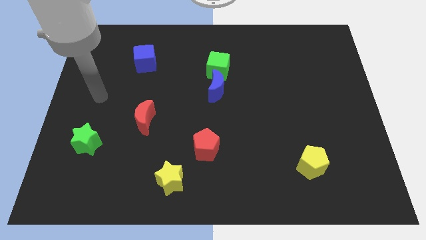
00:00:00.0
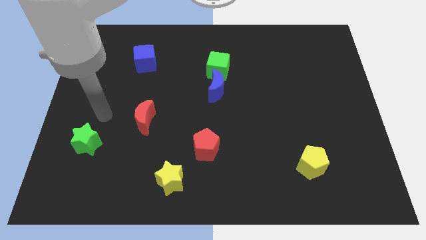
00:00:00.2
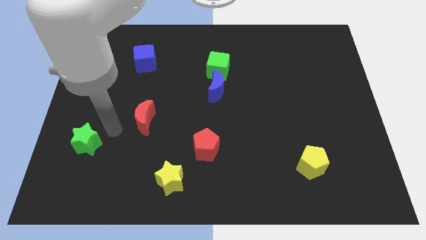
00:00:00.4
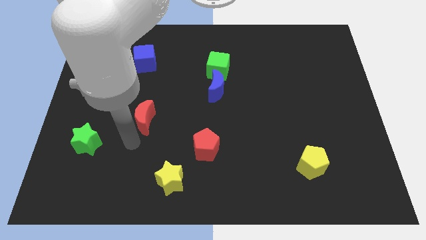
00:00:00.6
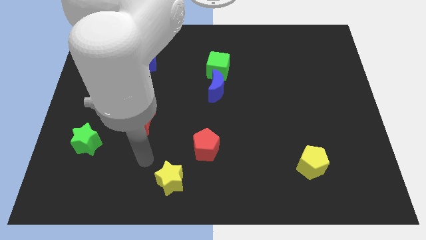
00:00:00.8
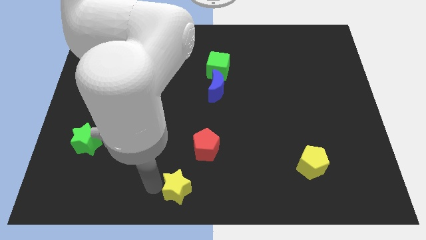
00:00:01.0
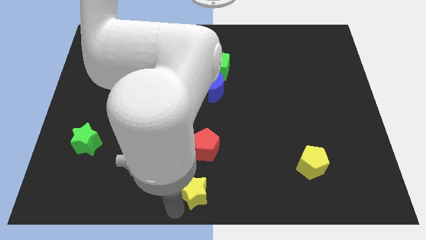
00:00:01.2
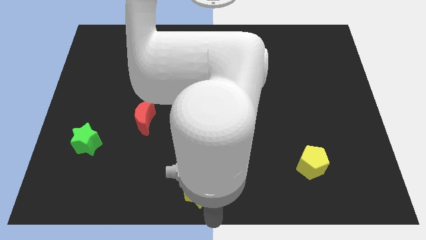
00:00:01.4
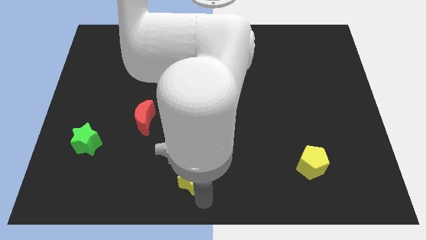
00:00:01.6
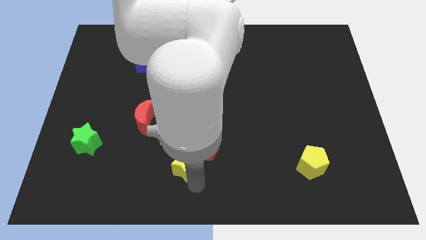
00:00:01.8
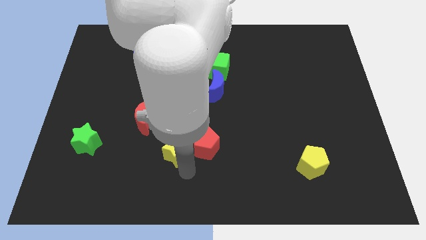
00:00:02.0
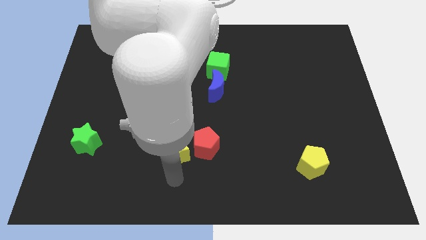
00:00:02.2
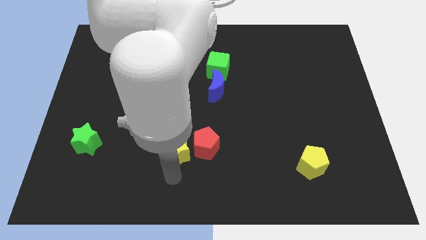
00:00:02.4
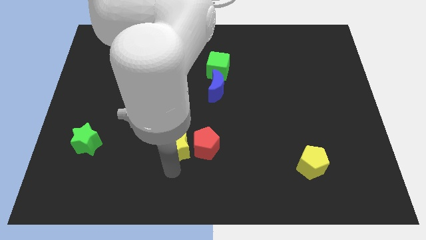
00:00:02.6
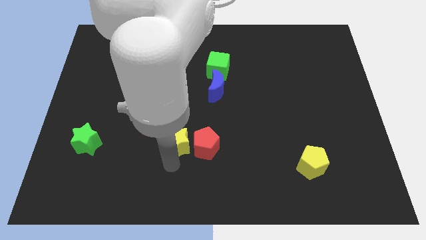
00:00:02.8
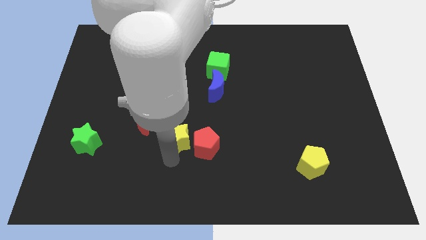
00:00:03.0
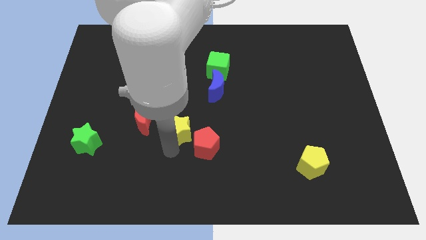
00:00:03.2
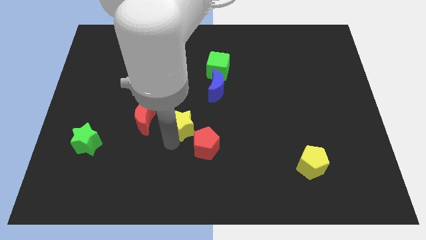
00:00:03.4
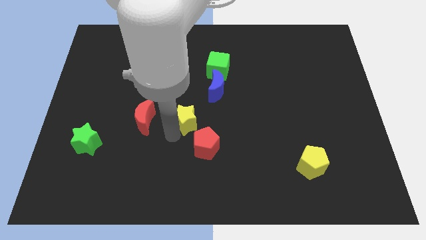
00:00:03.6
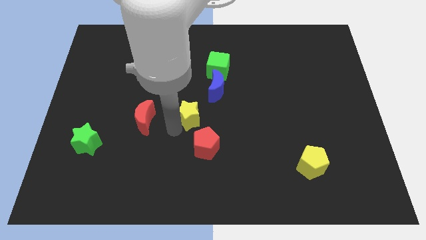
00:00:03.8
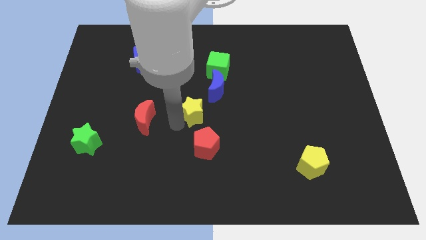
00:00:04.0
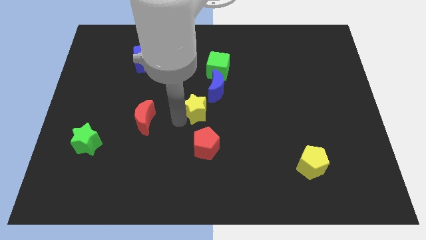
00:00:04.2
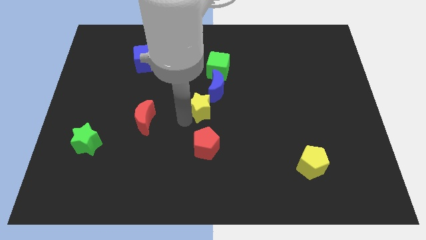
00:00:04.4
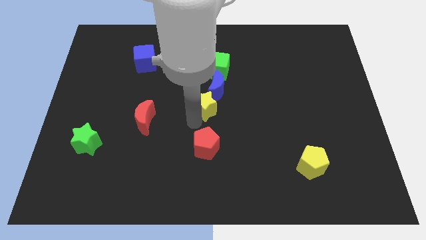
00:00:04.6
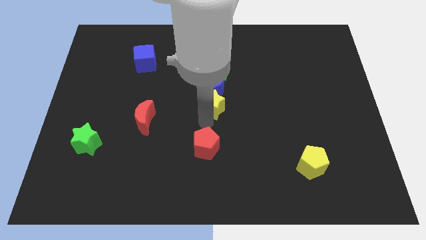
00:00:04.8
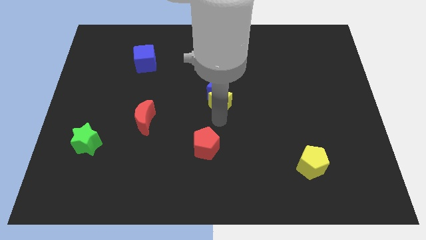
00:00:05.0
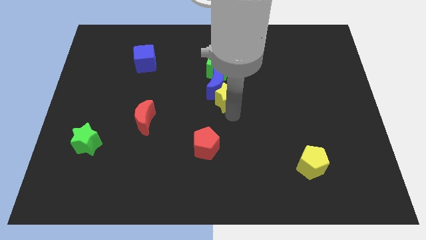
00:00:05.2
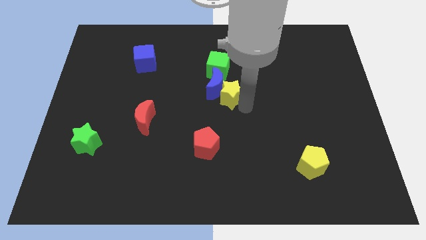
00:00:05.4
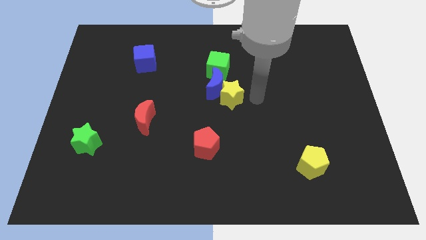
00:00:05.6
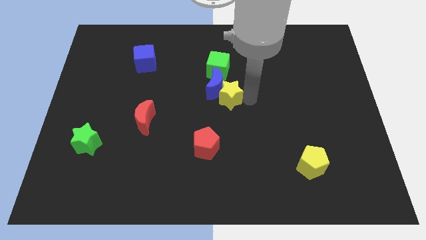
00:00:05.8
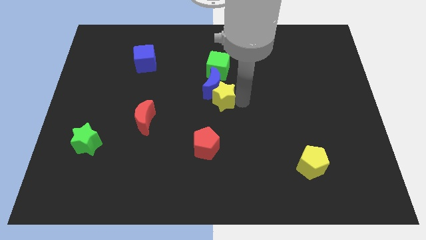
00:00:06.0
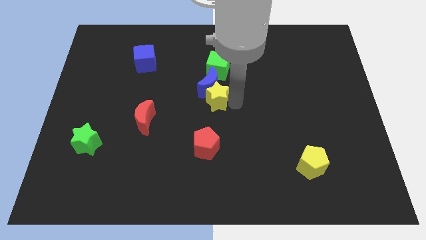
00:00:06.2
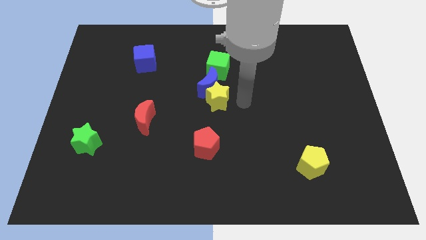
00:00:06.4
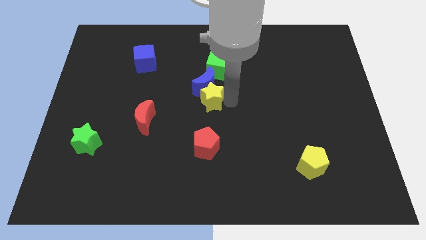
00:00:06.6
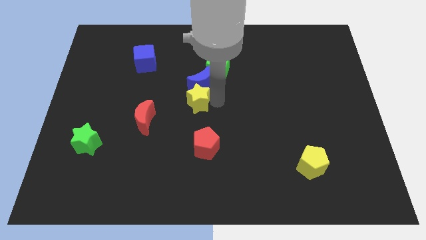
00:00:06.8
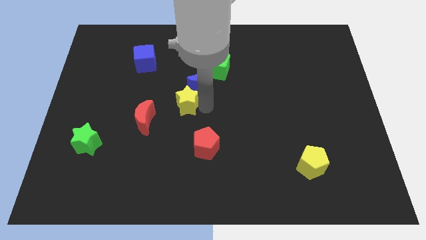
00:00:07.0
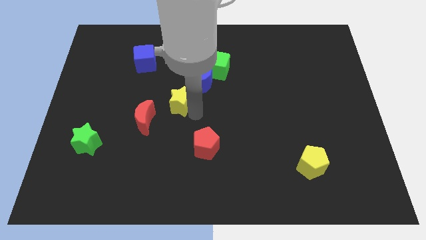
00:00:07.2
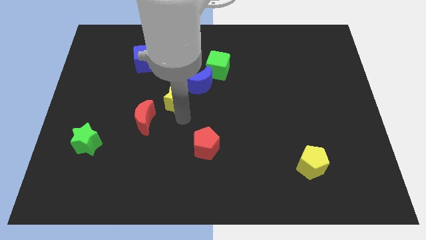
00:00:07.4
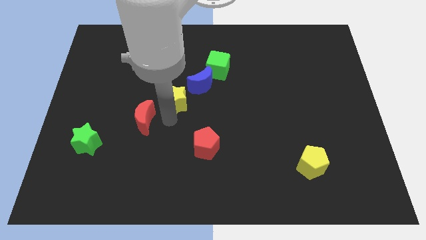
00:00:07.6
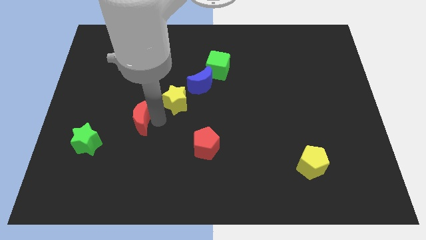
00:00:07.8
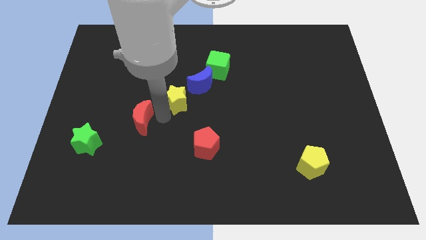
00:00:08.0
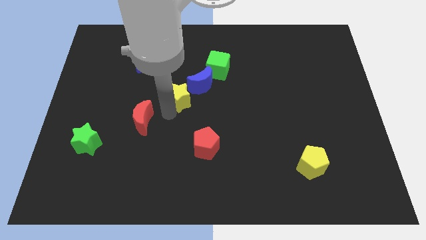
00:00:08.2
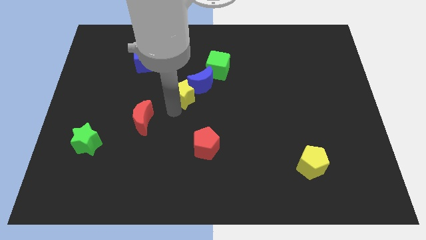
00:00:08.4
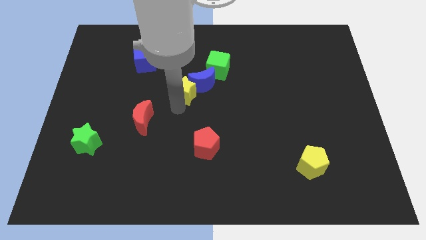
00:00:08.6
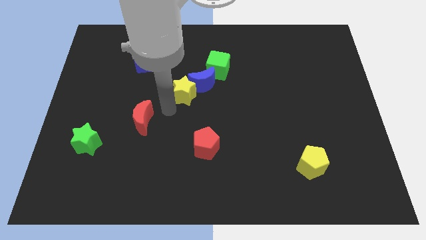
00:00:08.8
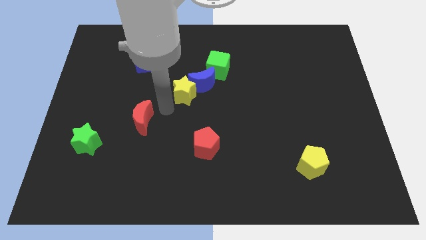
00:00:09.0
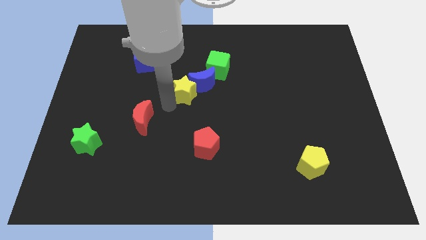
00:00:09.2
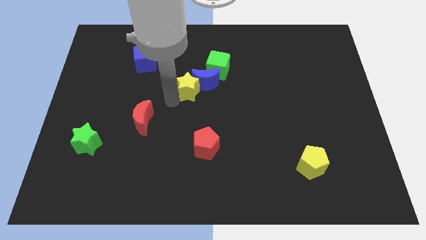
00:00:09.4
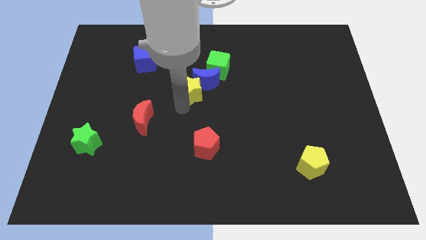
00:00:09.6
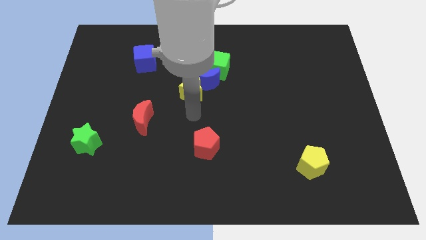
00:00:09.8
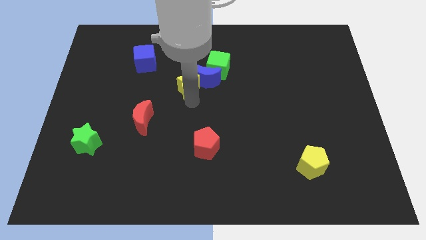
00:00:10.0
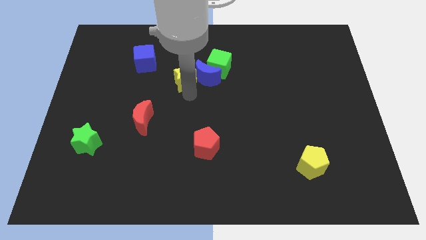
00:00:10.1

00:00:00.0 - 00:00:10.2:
push the yellow star to the top left side of the blue moon

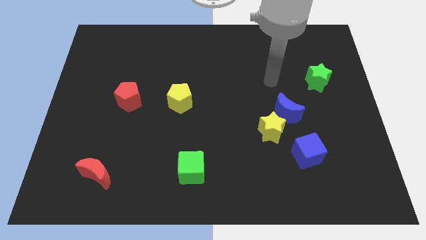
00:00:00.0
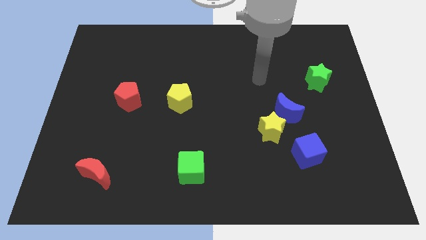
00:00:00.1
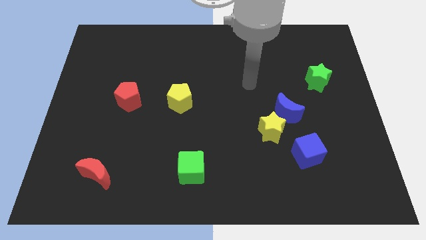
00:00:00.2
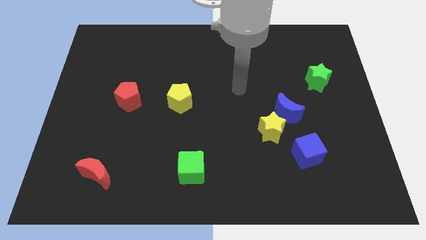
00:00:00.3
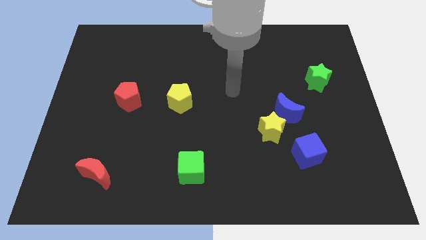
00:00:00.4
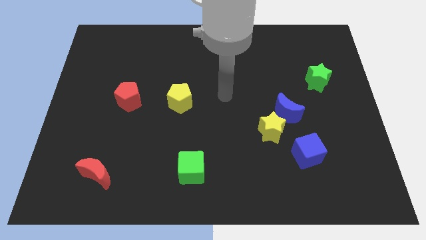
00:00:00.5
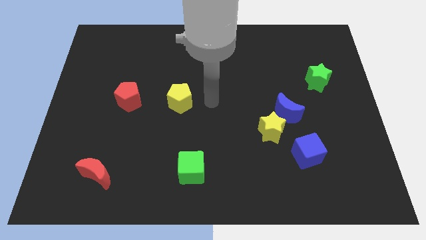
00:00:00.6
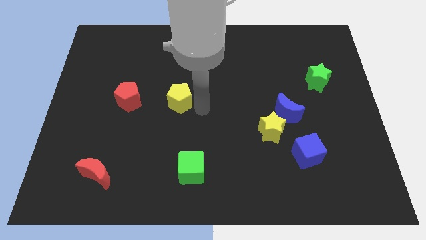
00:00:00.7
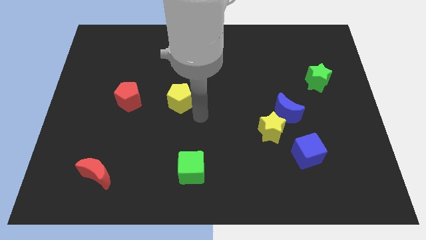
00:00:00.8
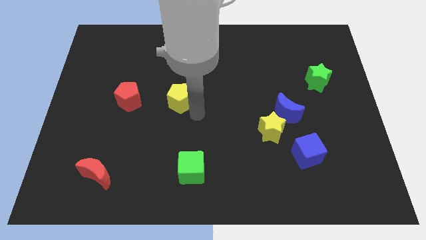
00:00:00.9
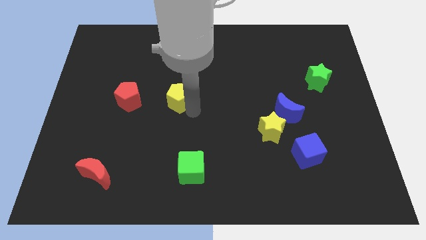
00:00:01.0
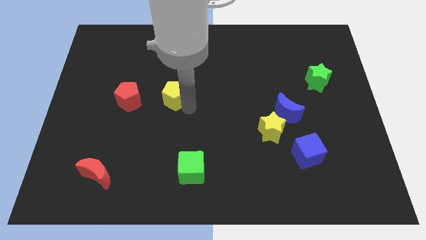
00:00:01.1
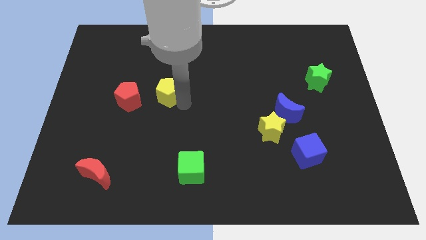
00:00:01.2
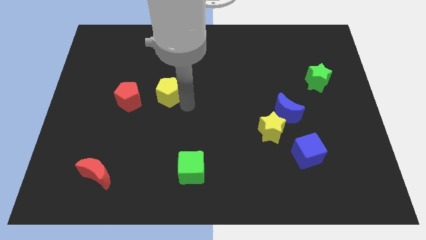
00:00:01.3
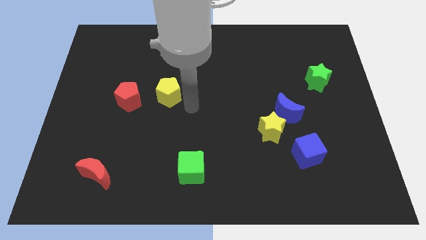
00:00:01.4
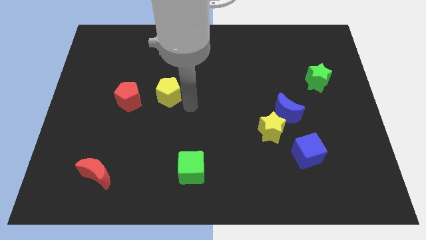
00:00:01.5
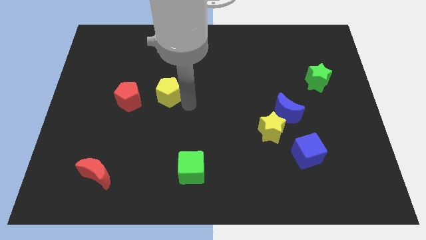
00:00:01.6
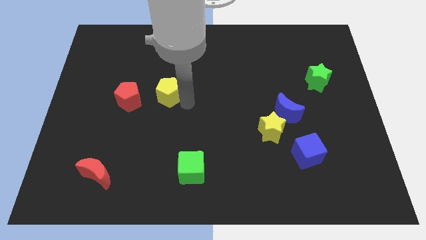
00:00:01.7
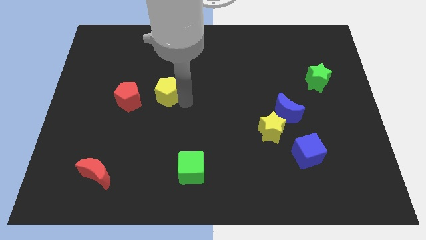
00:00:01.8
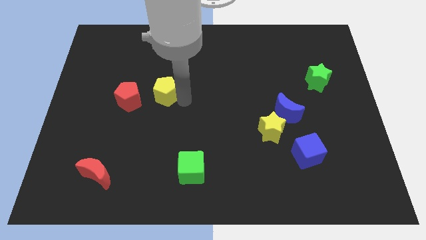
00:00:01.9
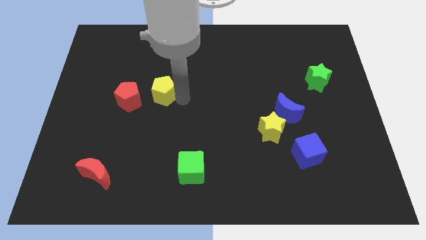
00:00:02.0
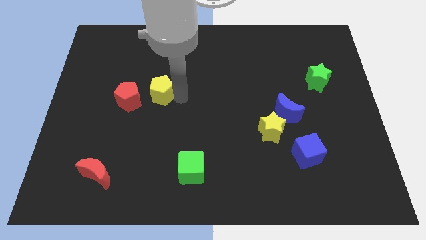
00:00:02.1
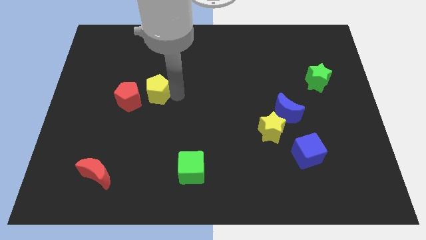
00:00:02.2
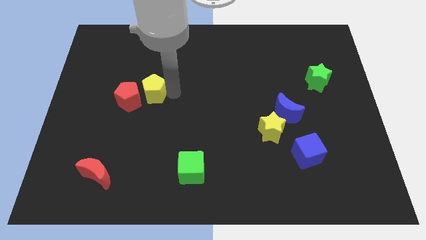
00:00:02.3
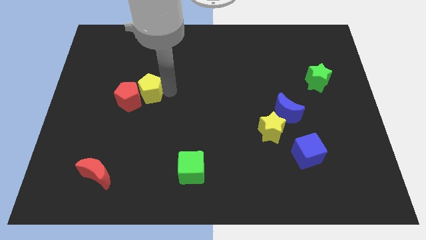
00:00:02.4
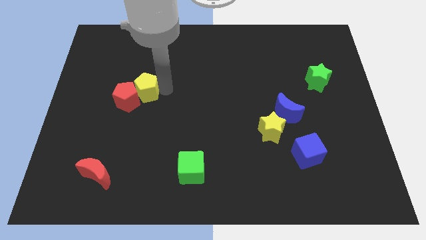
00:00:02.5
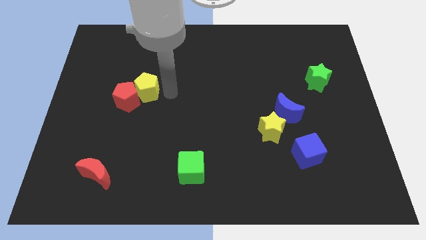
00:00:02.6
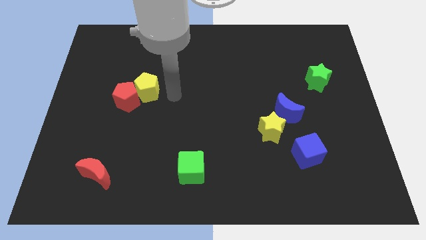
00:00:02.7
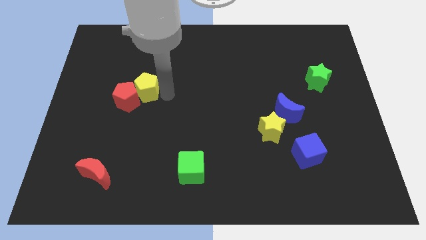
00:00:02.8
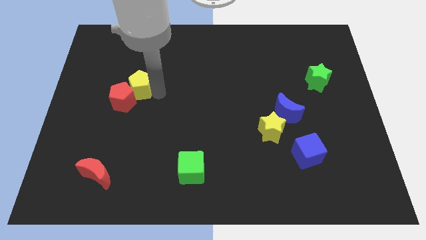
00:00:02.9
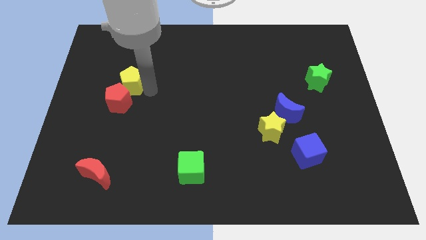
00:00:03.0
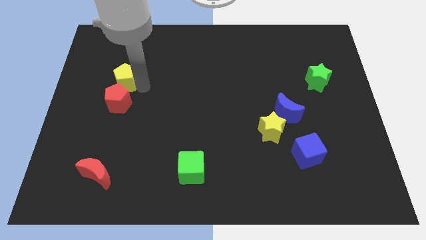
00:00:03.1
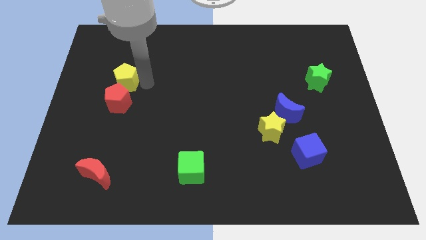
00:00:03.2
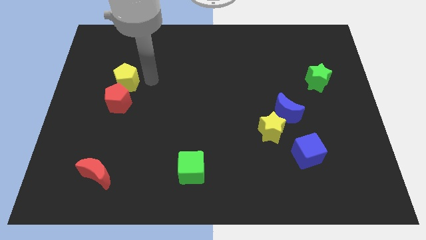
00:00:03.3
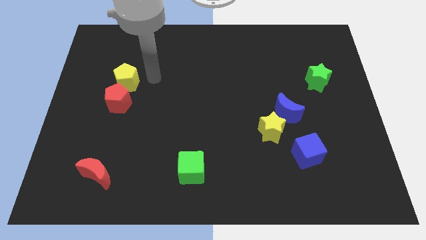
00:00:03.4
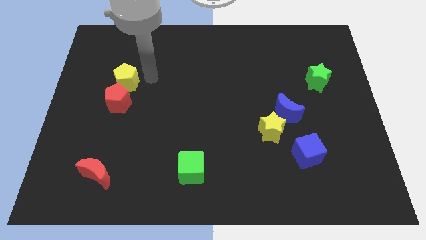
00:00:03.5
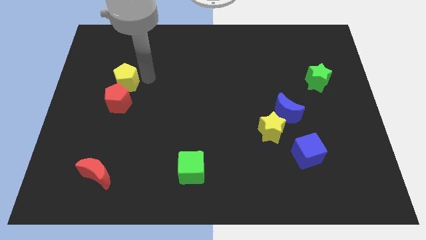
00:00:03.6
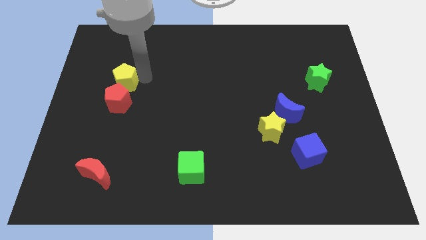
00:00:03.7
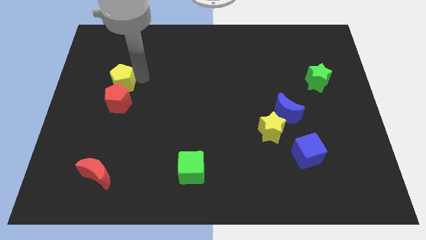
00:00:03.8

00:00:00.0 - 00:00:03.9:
put the yellow pentagon to the top left of the red pentagon
